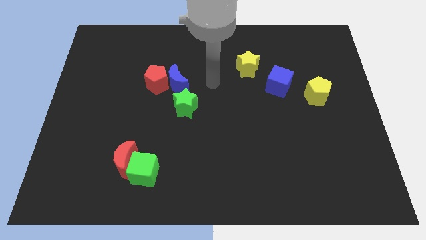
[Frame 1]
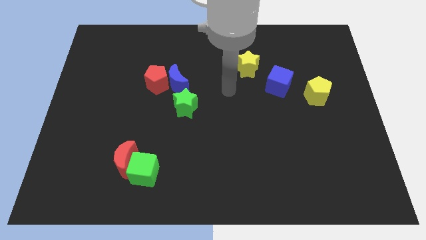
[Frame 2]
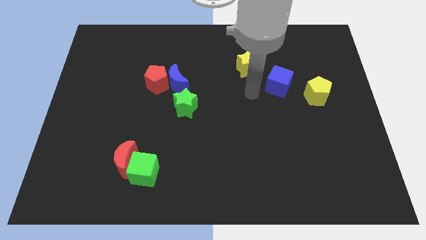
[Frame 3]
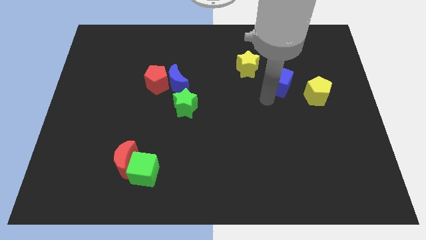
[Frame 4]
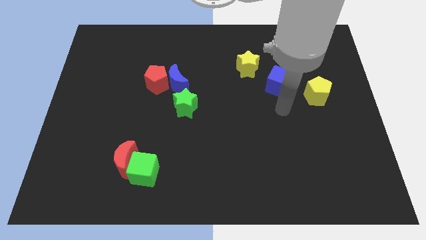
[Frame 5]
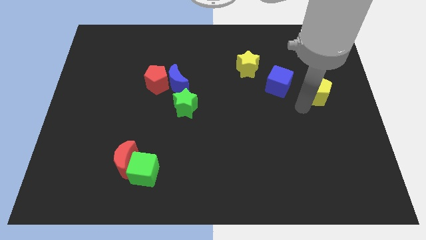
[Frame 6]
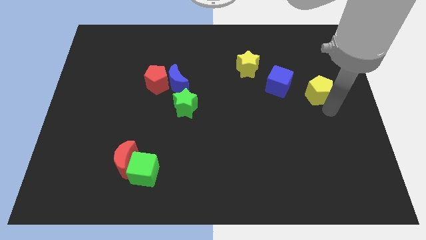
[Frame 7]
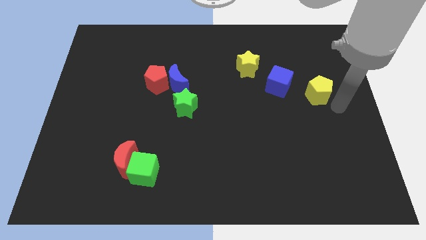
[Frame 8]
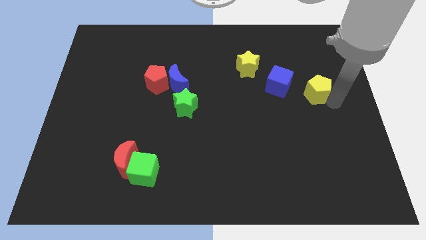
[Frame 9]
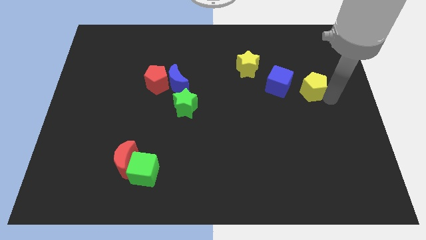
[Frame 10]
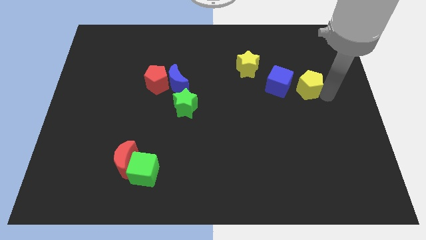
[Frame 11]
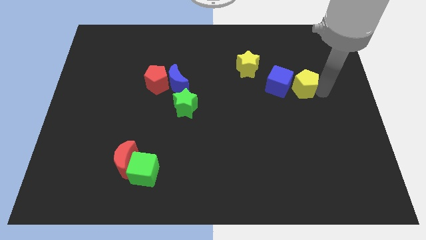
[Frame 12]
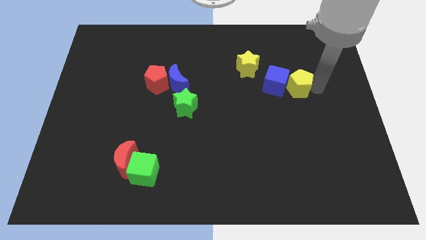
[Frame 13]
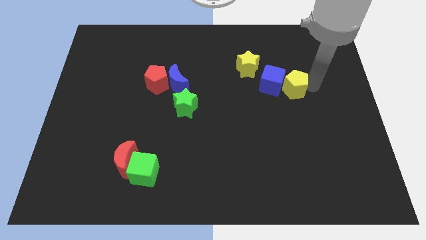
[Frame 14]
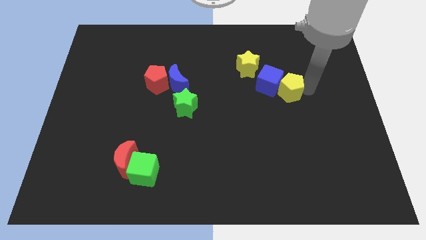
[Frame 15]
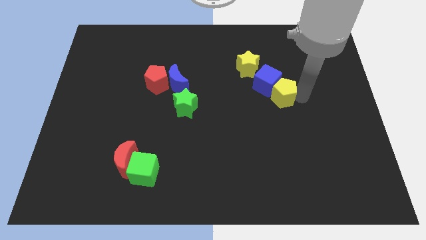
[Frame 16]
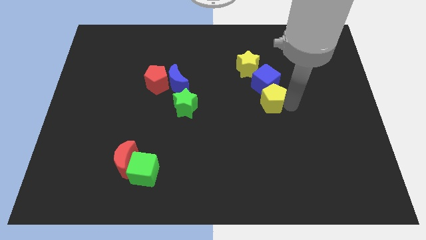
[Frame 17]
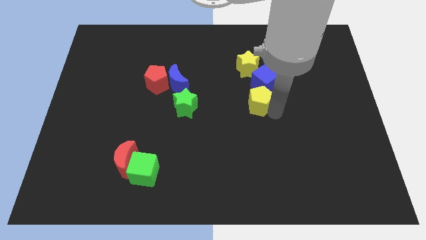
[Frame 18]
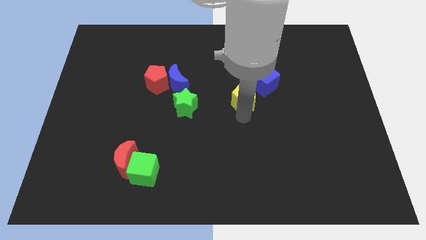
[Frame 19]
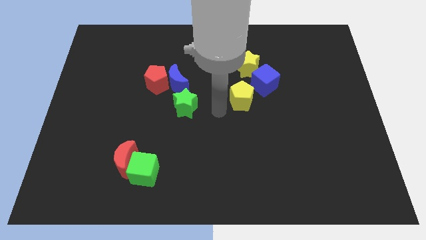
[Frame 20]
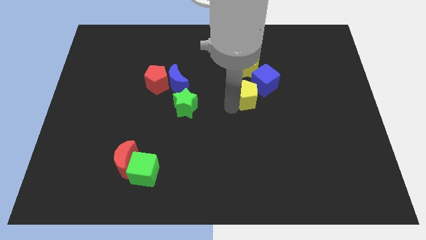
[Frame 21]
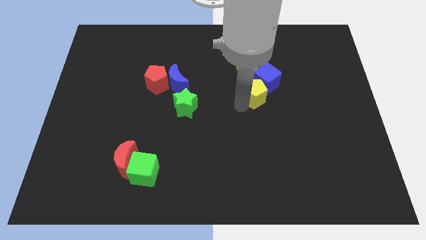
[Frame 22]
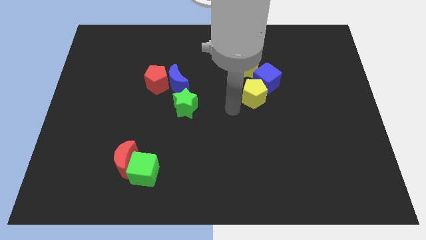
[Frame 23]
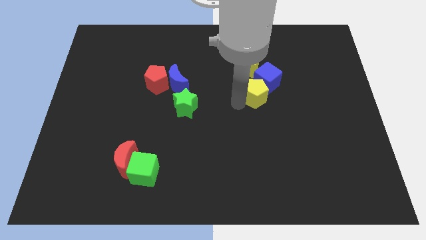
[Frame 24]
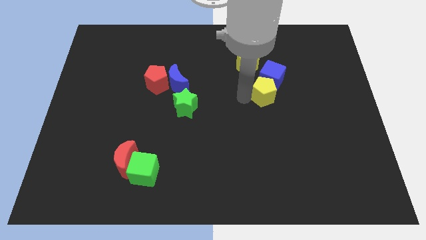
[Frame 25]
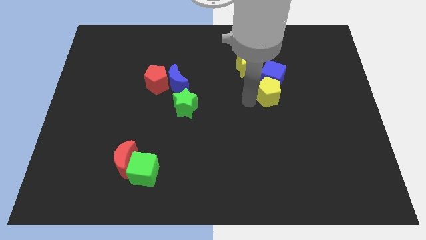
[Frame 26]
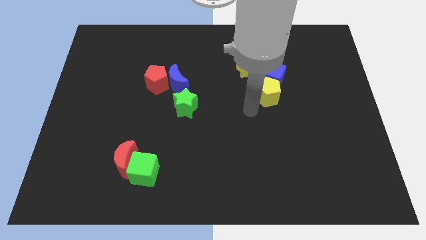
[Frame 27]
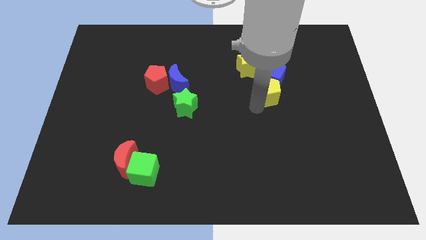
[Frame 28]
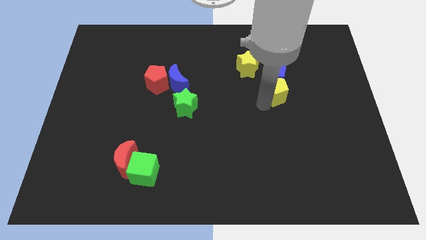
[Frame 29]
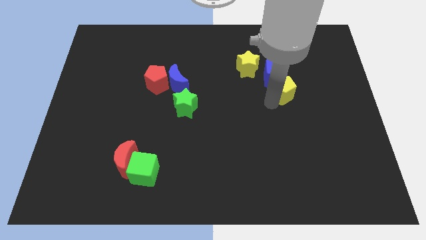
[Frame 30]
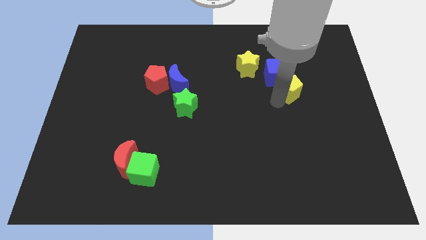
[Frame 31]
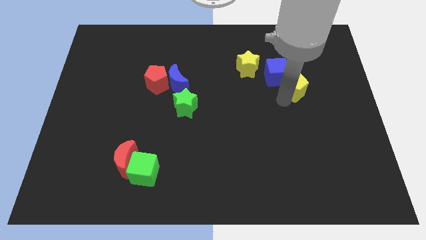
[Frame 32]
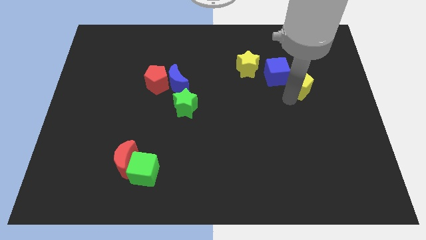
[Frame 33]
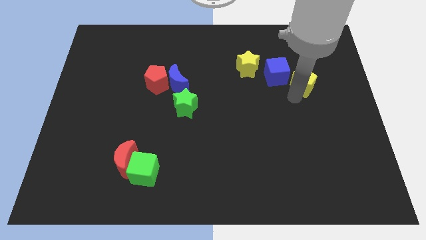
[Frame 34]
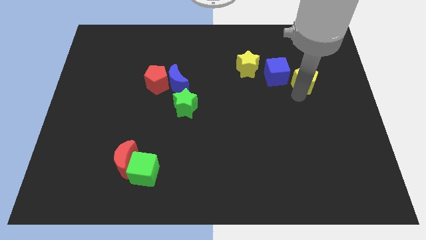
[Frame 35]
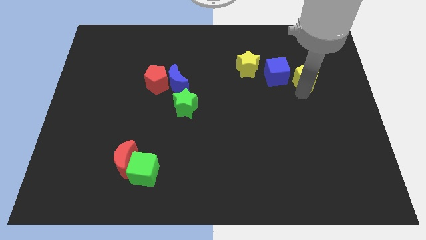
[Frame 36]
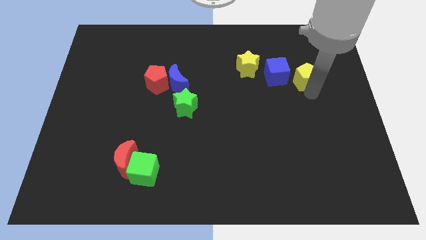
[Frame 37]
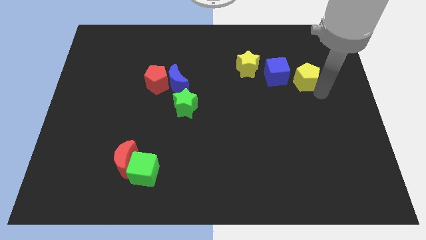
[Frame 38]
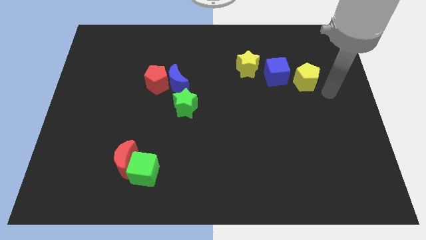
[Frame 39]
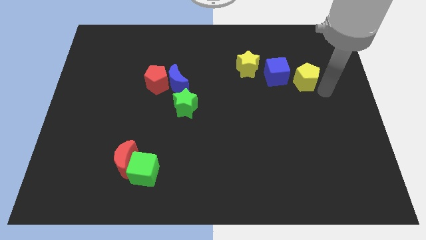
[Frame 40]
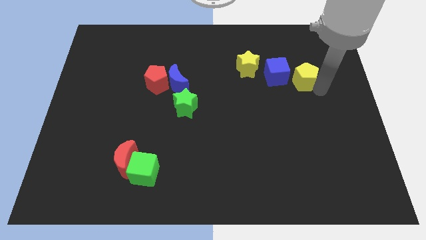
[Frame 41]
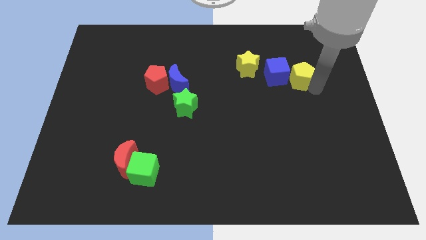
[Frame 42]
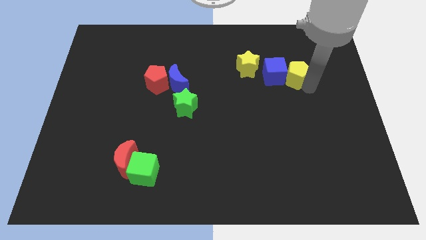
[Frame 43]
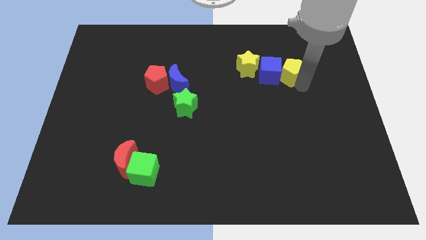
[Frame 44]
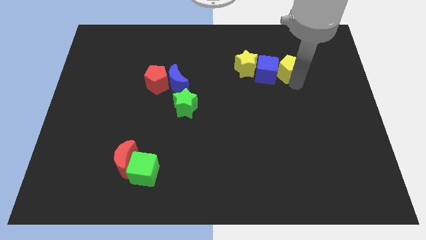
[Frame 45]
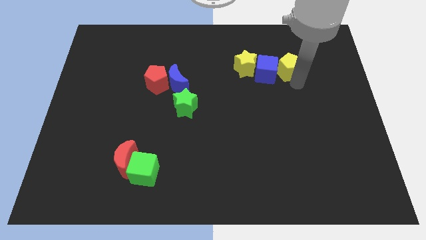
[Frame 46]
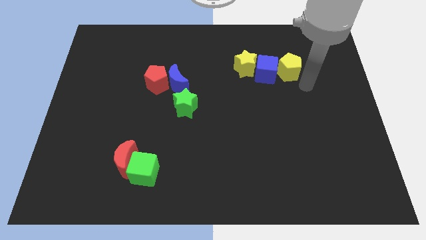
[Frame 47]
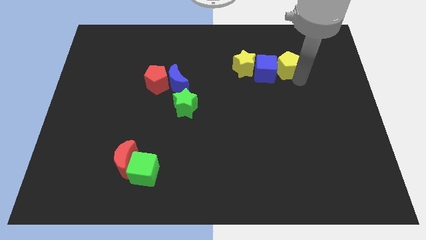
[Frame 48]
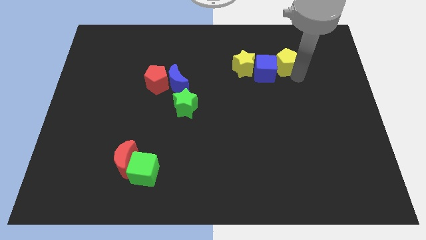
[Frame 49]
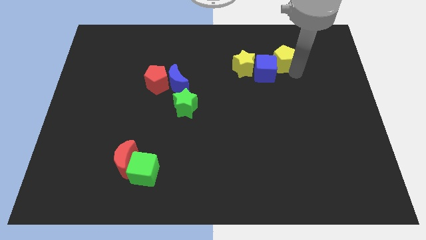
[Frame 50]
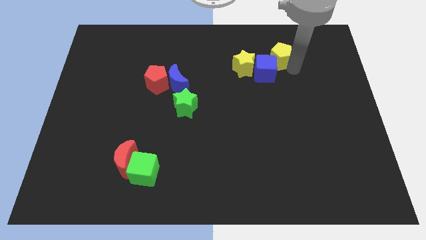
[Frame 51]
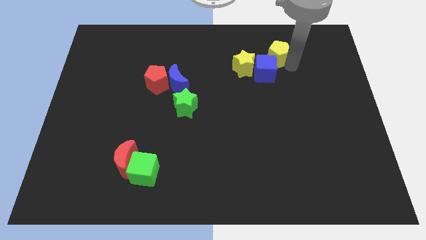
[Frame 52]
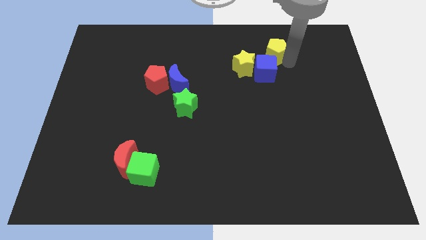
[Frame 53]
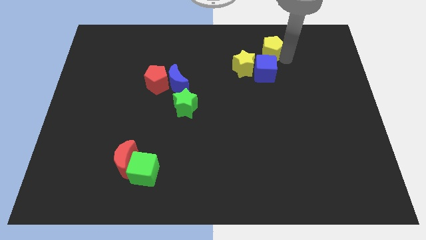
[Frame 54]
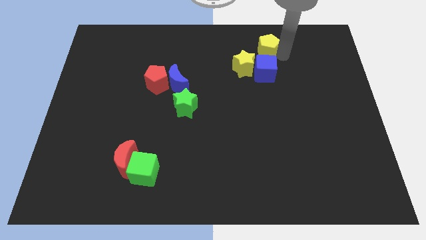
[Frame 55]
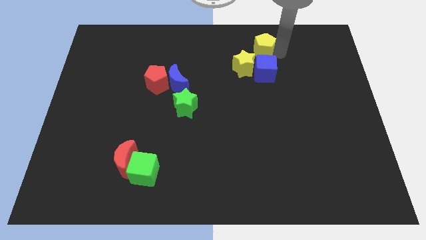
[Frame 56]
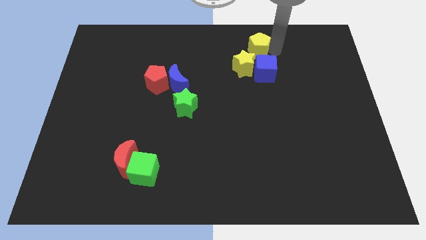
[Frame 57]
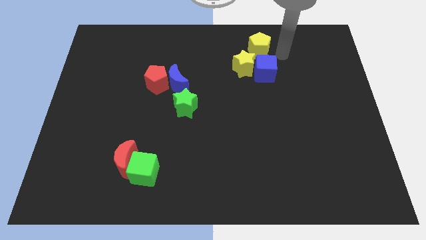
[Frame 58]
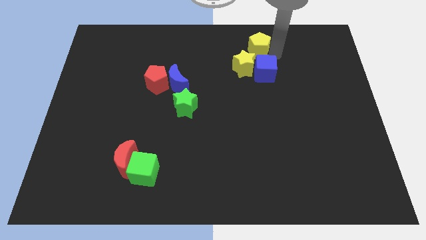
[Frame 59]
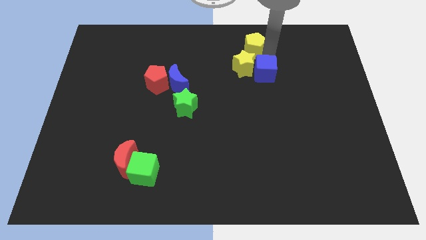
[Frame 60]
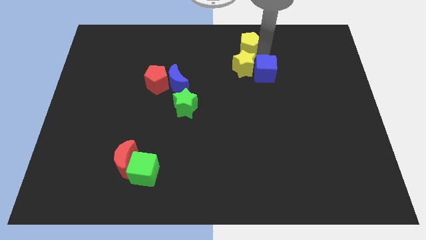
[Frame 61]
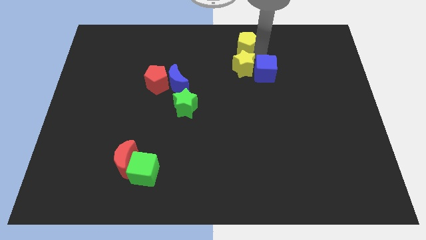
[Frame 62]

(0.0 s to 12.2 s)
put the yellow pentagon to the top side

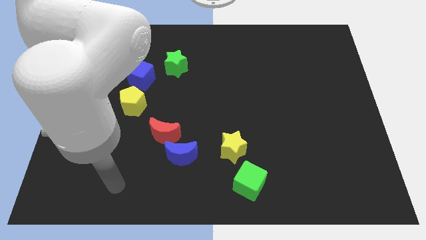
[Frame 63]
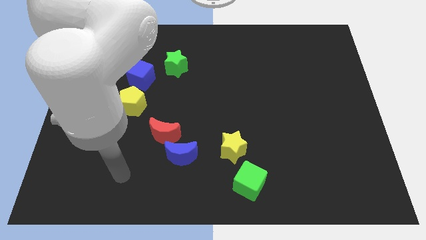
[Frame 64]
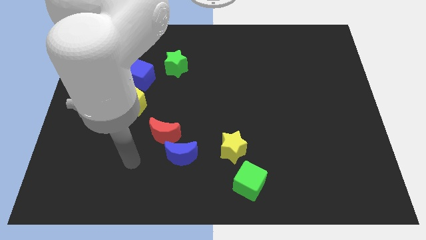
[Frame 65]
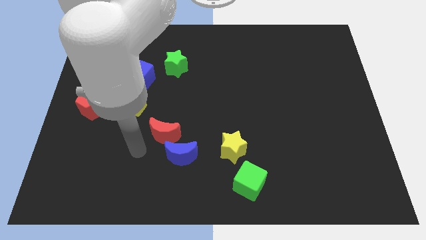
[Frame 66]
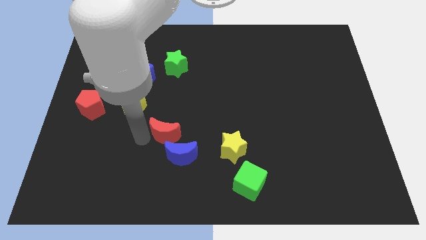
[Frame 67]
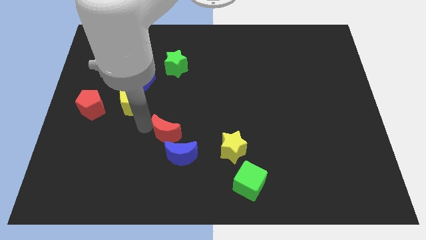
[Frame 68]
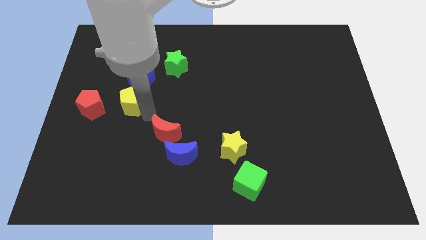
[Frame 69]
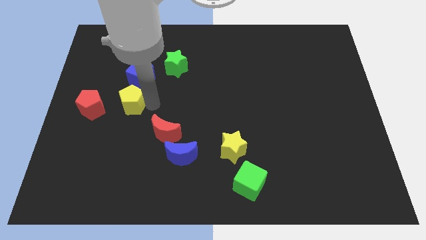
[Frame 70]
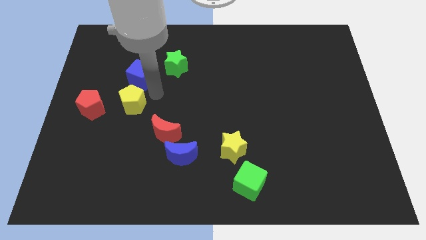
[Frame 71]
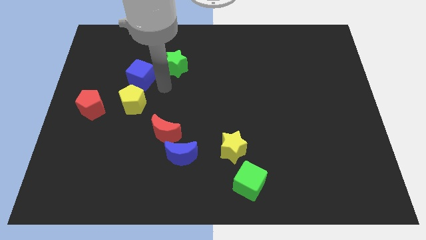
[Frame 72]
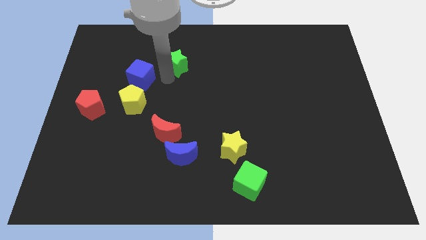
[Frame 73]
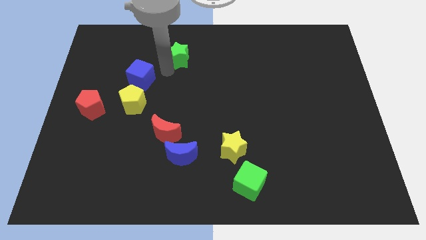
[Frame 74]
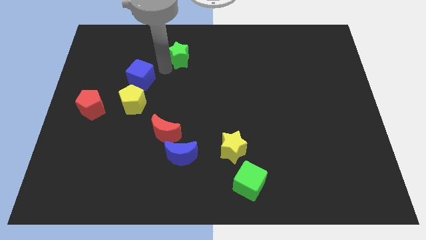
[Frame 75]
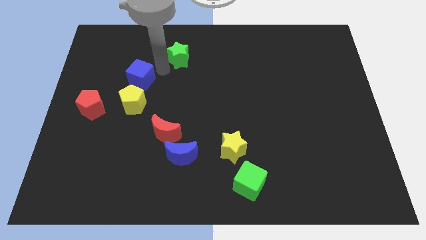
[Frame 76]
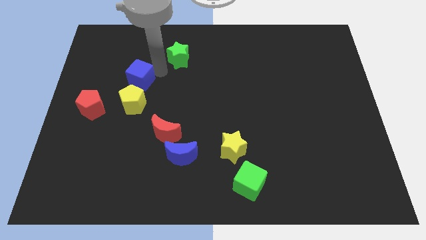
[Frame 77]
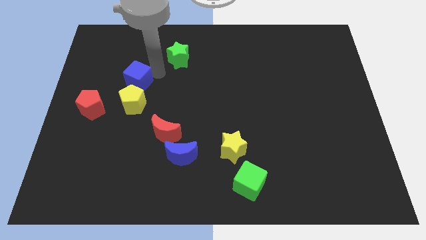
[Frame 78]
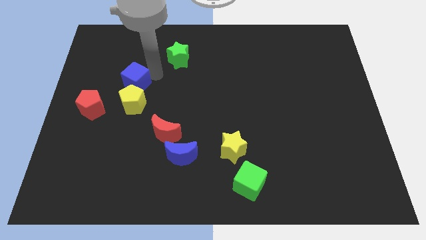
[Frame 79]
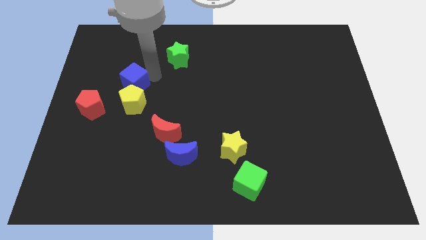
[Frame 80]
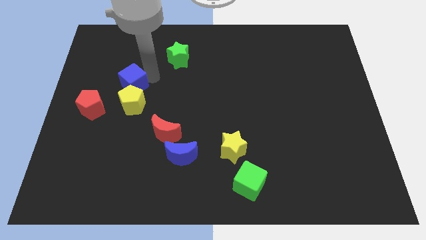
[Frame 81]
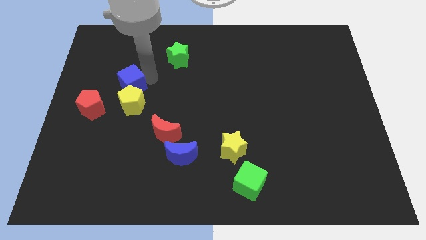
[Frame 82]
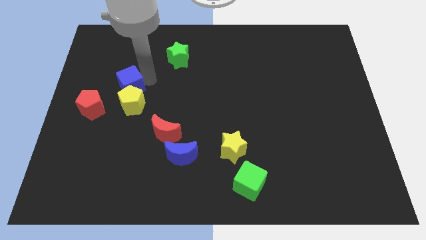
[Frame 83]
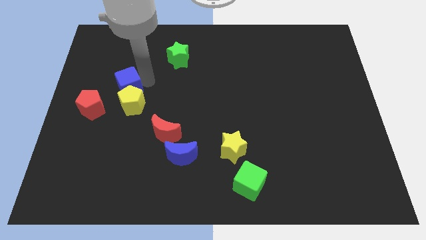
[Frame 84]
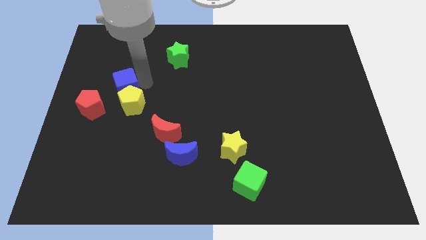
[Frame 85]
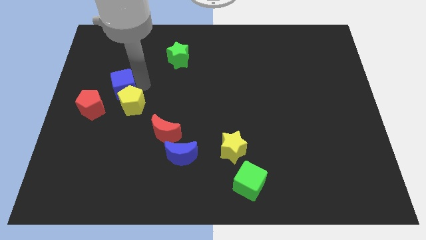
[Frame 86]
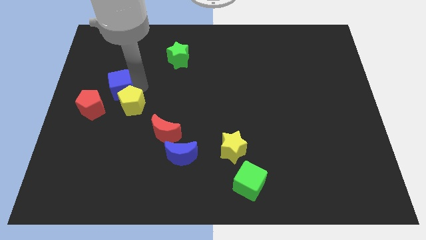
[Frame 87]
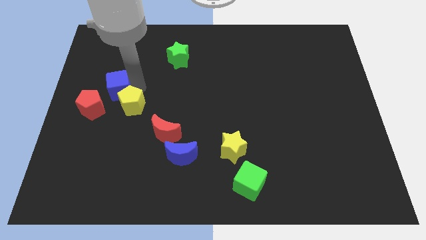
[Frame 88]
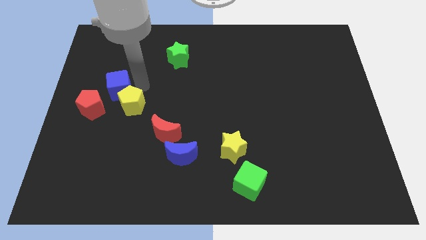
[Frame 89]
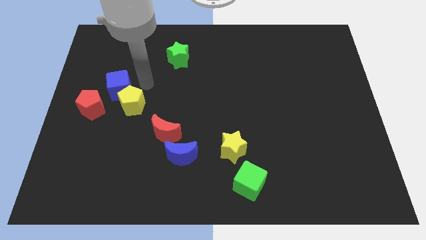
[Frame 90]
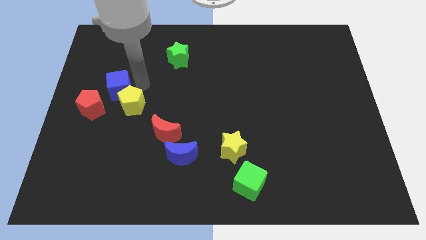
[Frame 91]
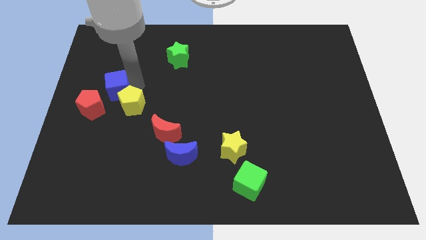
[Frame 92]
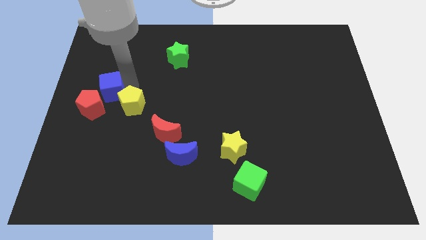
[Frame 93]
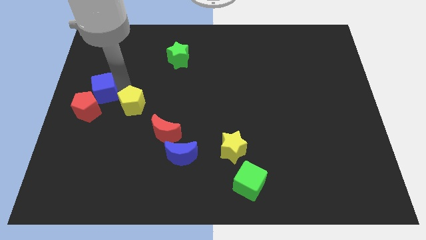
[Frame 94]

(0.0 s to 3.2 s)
push the blue cube to the left side
